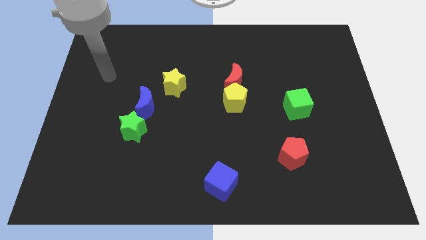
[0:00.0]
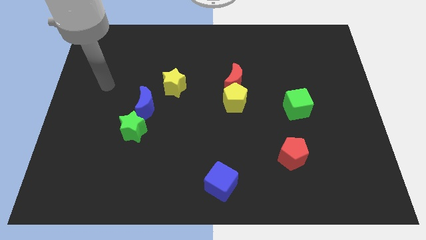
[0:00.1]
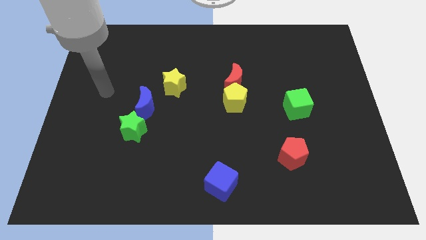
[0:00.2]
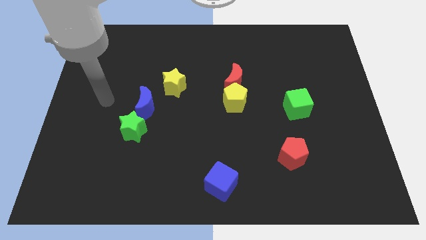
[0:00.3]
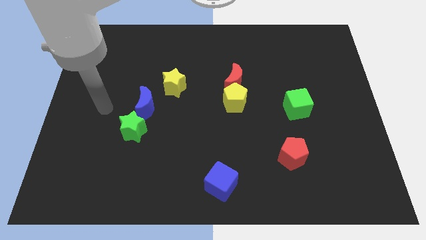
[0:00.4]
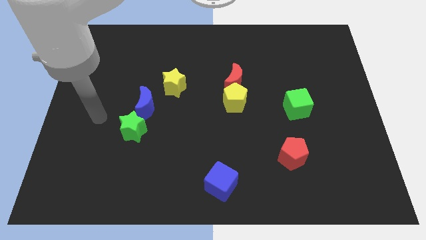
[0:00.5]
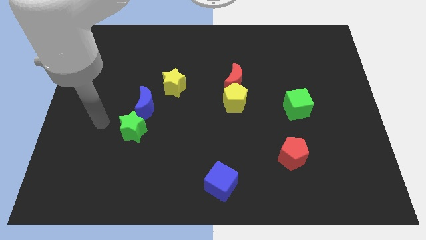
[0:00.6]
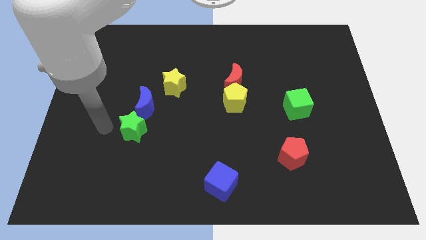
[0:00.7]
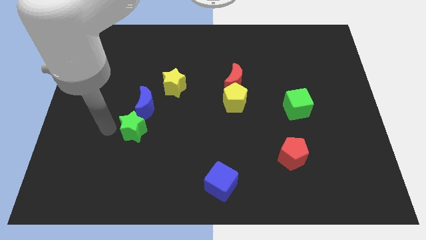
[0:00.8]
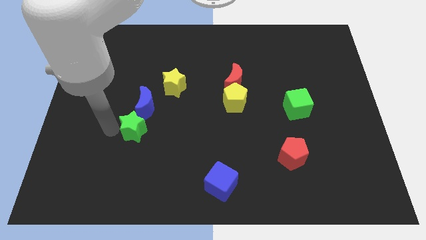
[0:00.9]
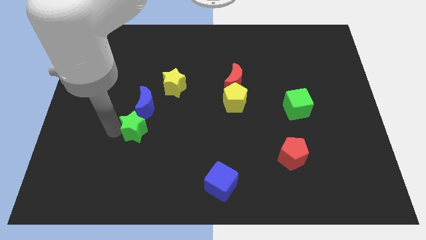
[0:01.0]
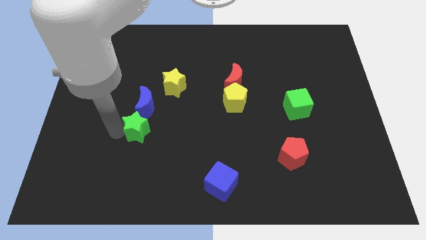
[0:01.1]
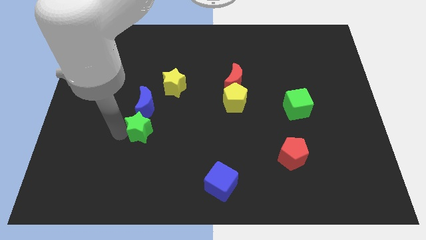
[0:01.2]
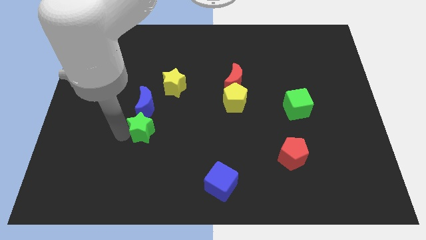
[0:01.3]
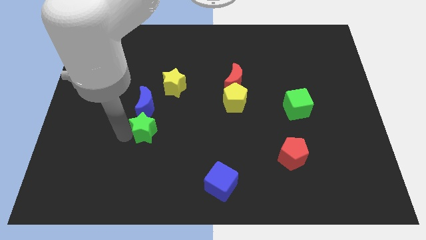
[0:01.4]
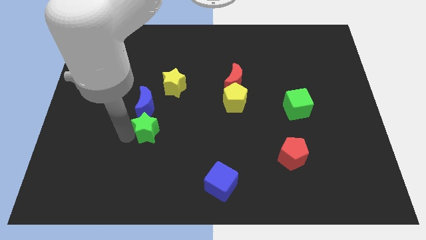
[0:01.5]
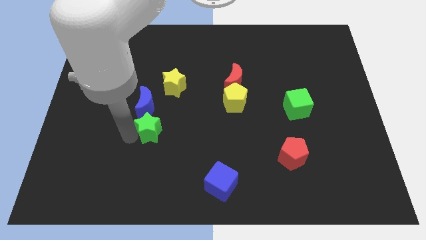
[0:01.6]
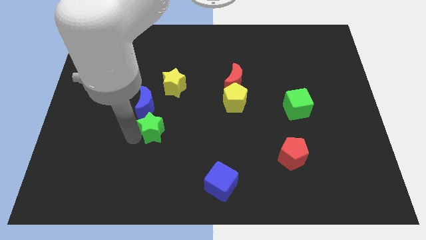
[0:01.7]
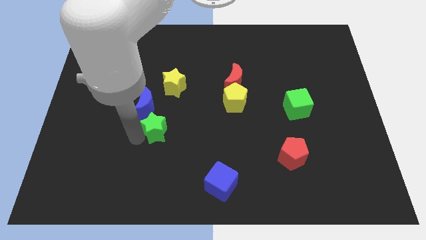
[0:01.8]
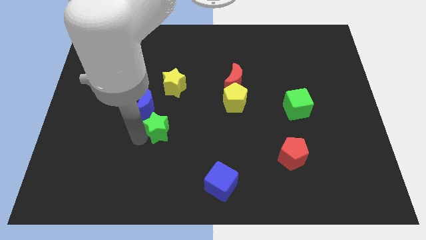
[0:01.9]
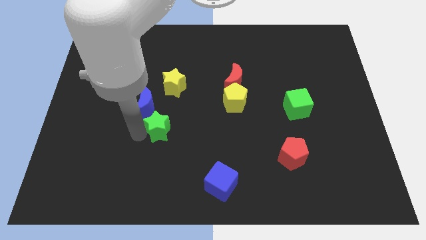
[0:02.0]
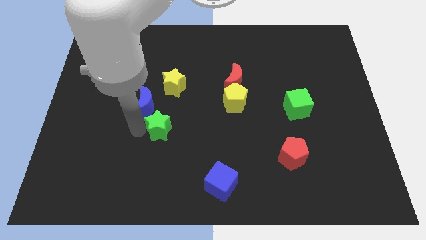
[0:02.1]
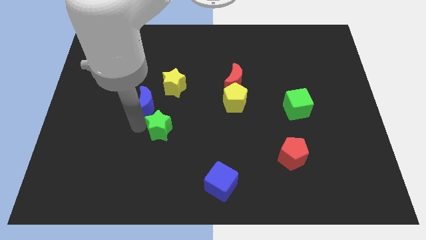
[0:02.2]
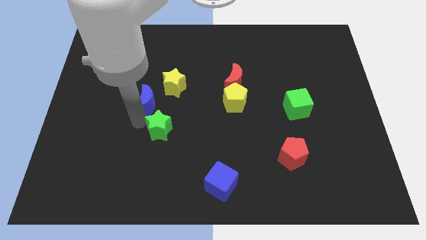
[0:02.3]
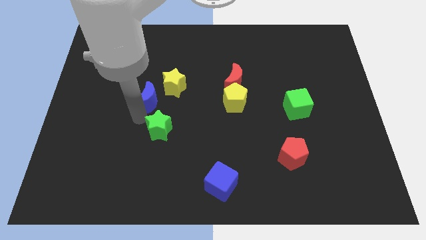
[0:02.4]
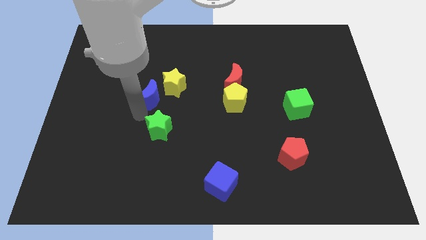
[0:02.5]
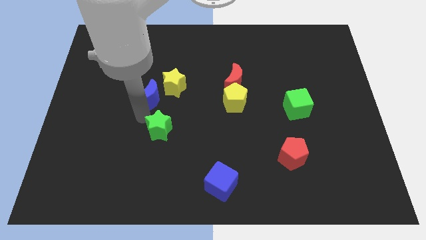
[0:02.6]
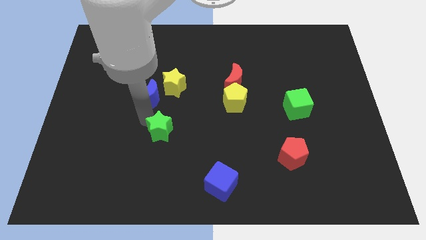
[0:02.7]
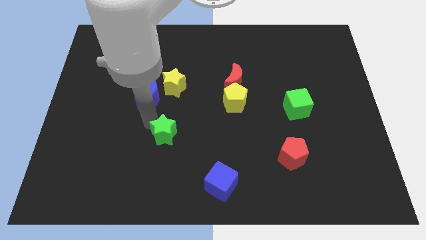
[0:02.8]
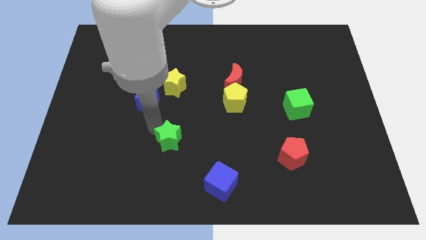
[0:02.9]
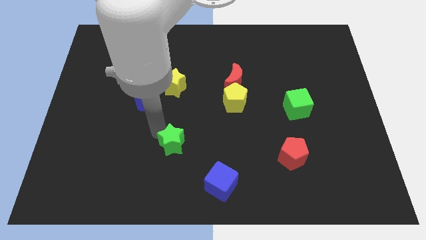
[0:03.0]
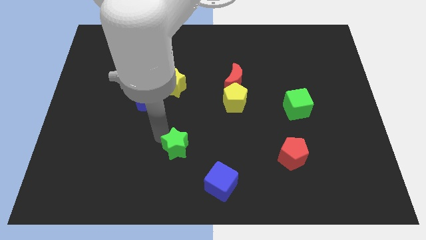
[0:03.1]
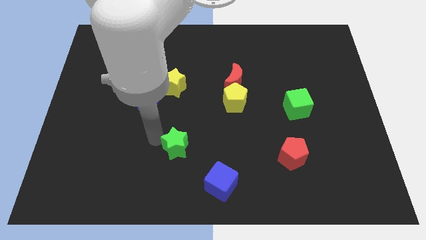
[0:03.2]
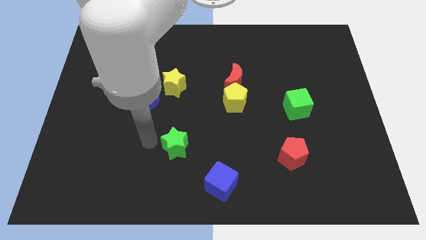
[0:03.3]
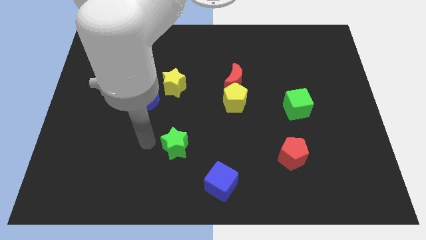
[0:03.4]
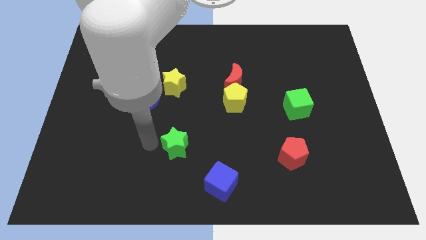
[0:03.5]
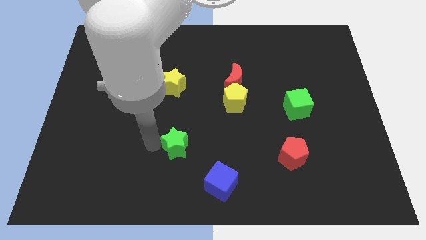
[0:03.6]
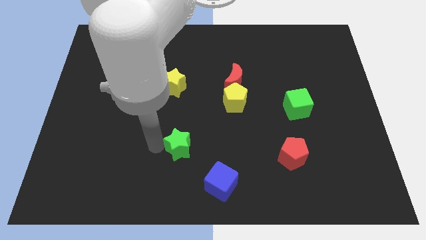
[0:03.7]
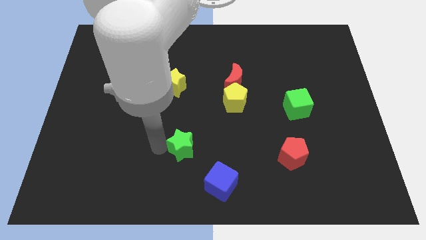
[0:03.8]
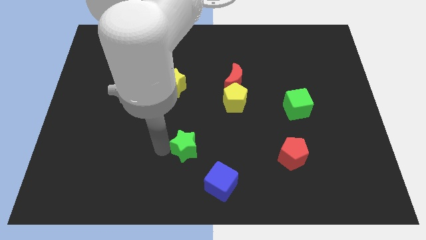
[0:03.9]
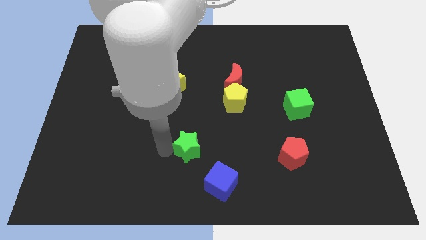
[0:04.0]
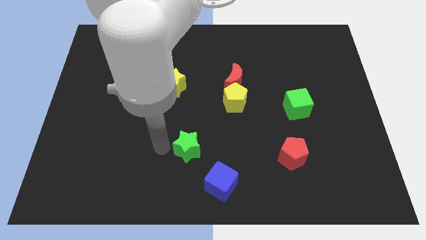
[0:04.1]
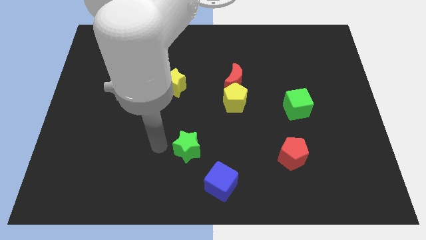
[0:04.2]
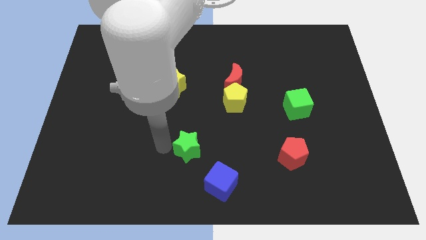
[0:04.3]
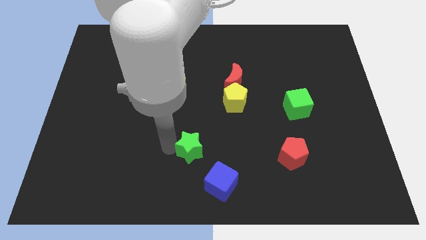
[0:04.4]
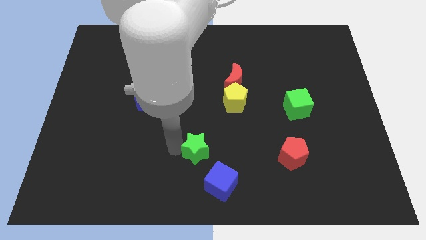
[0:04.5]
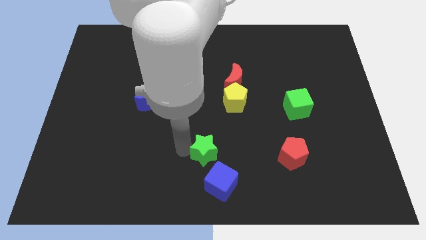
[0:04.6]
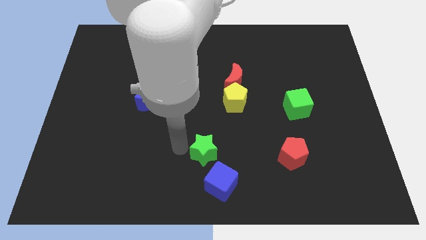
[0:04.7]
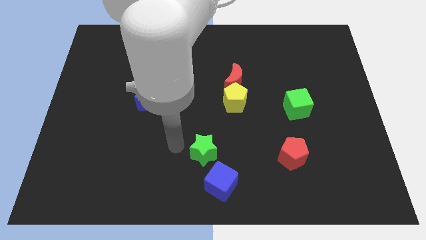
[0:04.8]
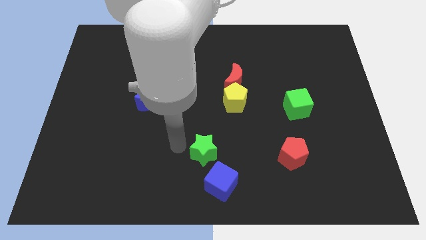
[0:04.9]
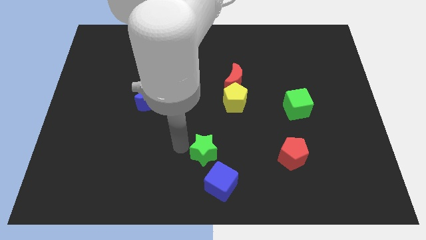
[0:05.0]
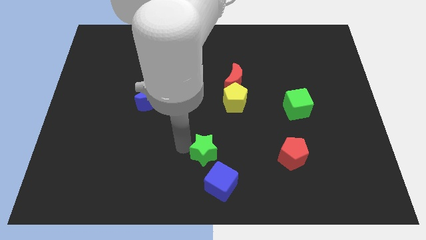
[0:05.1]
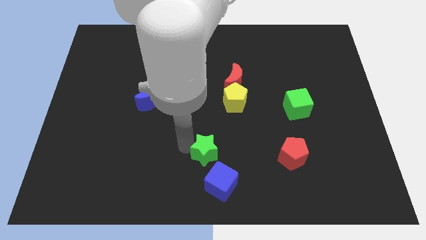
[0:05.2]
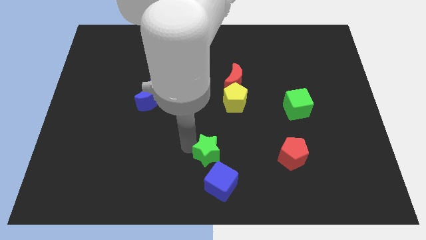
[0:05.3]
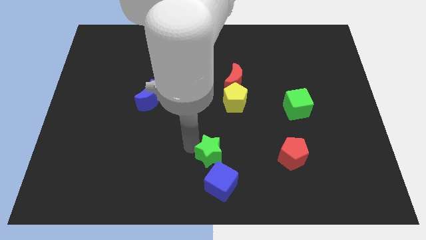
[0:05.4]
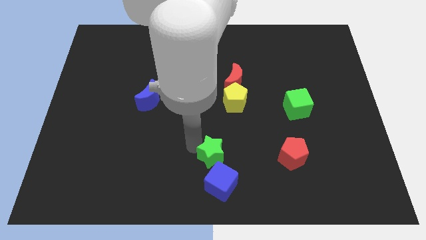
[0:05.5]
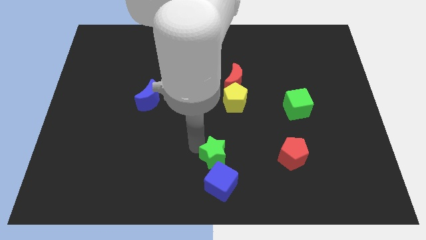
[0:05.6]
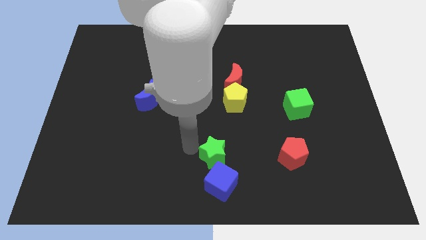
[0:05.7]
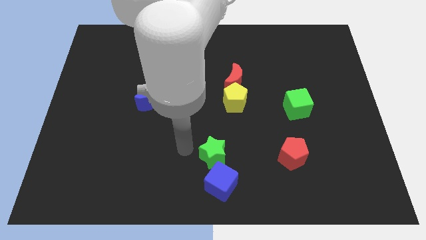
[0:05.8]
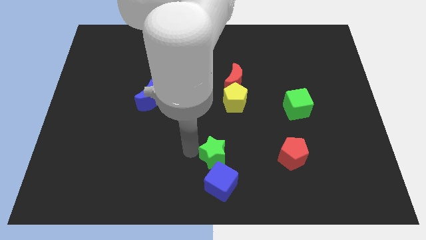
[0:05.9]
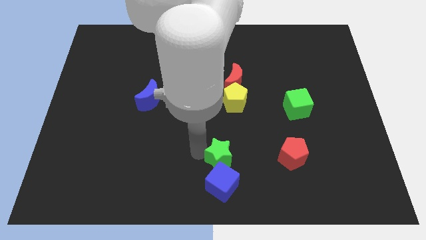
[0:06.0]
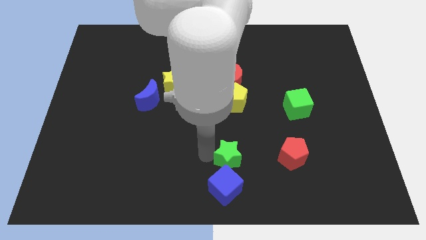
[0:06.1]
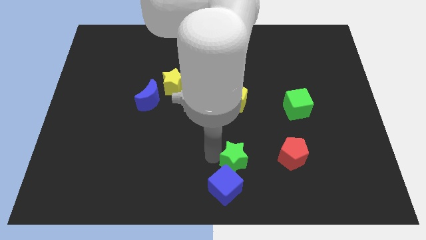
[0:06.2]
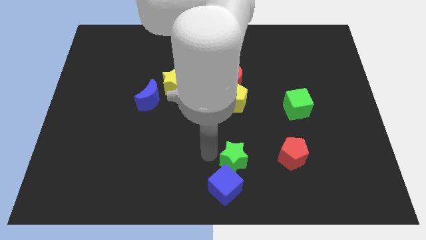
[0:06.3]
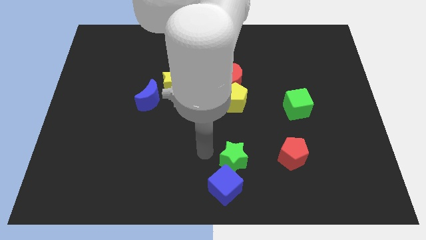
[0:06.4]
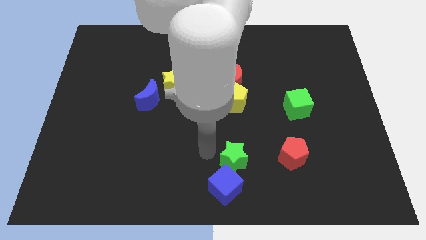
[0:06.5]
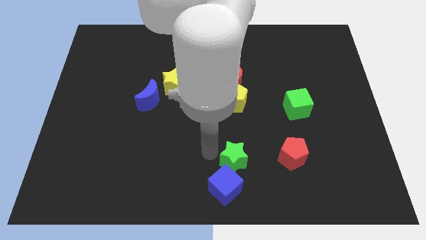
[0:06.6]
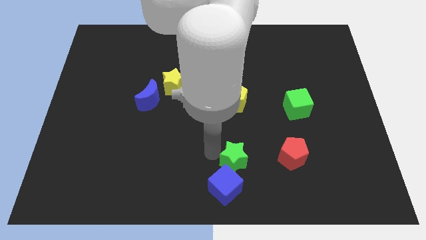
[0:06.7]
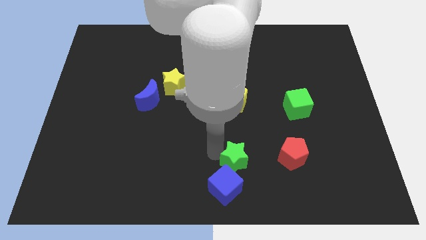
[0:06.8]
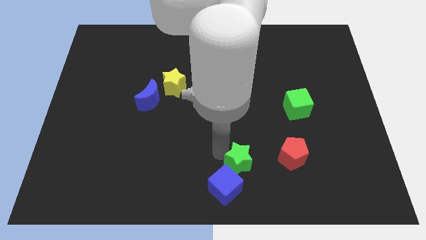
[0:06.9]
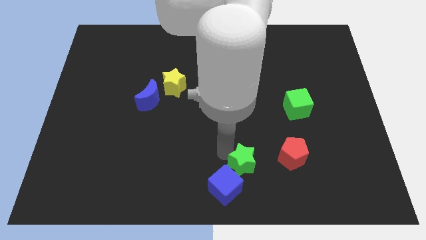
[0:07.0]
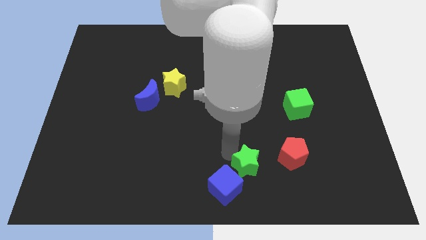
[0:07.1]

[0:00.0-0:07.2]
put the green star just right of the blue cube

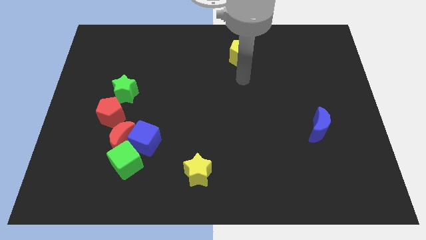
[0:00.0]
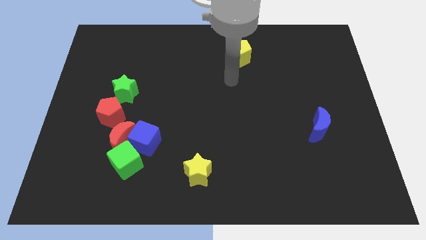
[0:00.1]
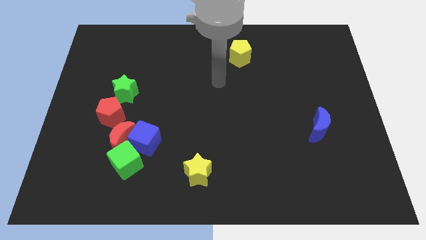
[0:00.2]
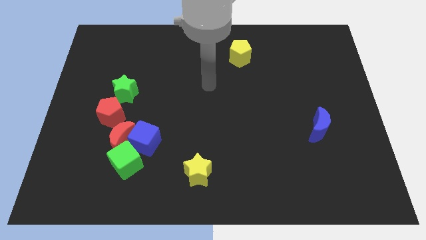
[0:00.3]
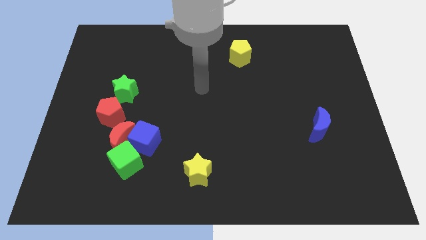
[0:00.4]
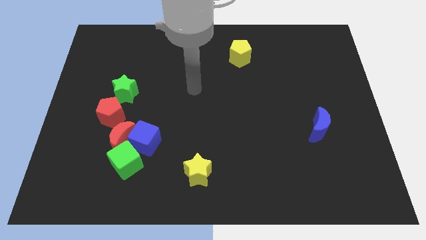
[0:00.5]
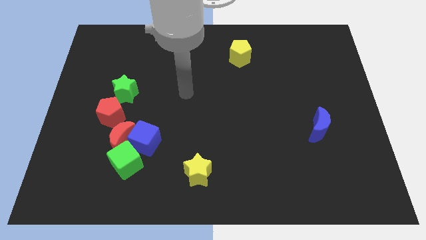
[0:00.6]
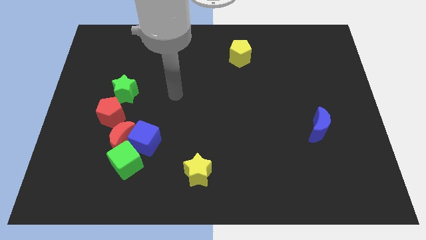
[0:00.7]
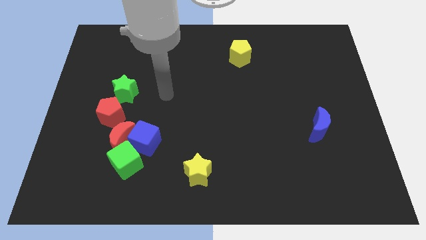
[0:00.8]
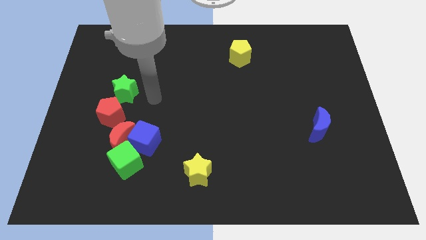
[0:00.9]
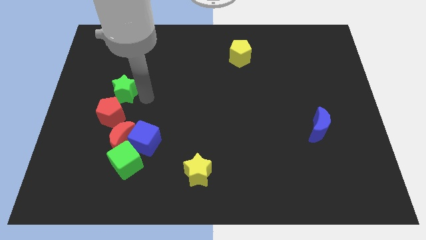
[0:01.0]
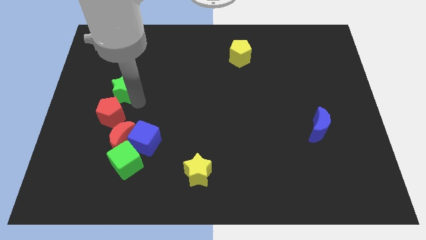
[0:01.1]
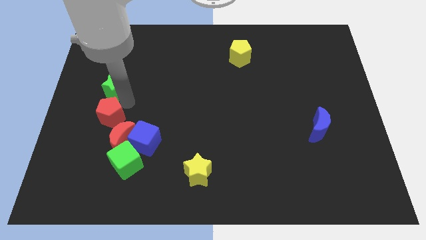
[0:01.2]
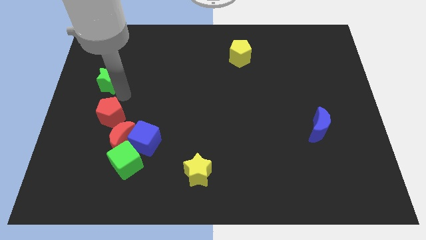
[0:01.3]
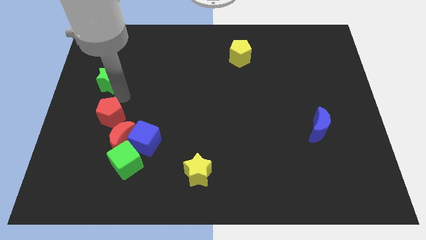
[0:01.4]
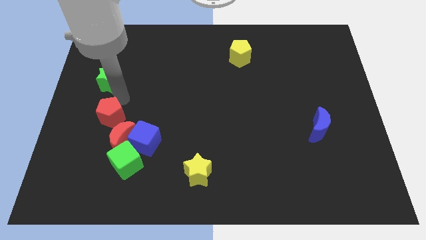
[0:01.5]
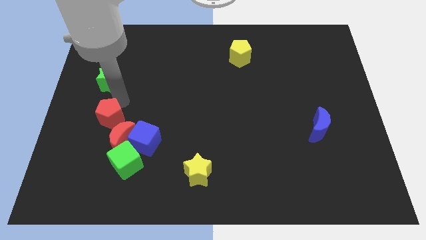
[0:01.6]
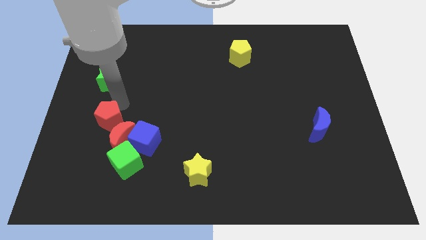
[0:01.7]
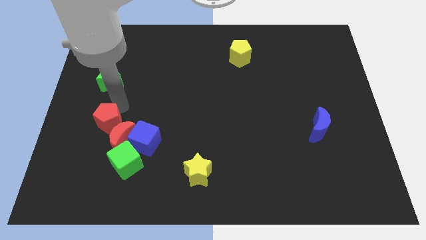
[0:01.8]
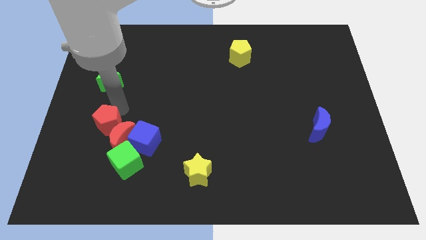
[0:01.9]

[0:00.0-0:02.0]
move the red pentagon to the left of the blue cube
